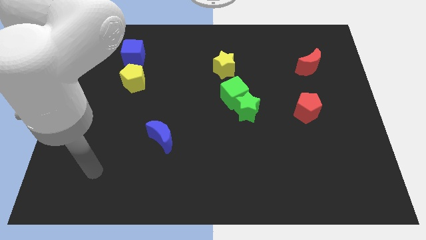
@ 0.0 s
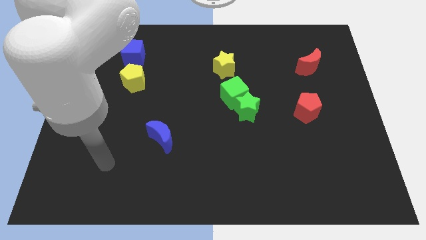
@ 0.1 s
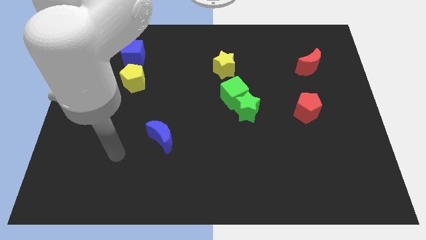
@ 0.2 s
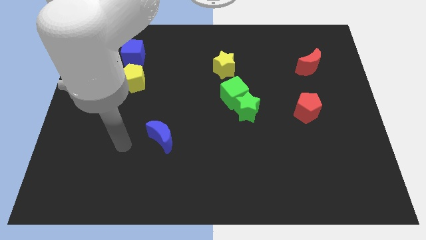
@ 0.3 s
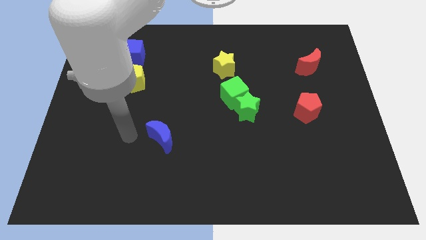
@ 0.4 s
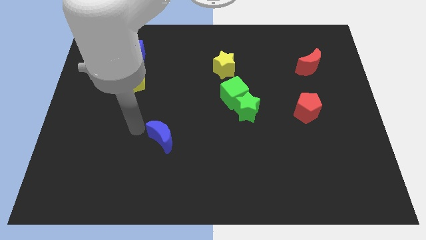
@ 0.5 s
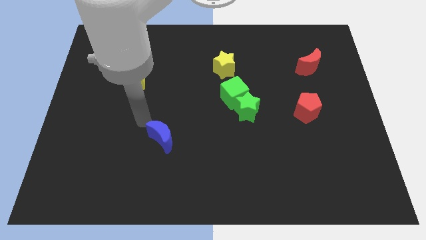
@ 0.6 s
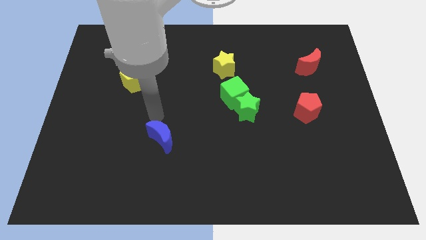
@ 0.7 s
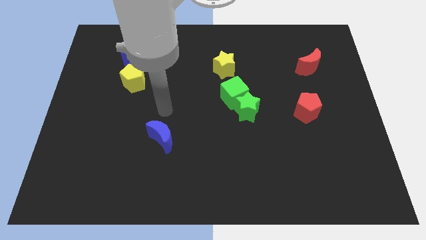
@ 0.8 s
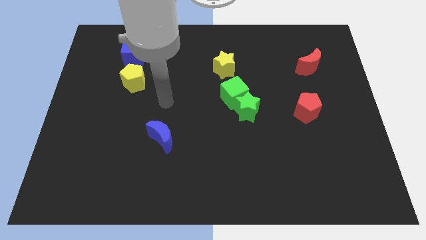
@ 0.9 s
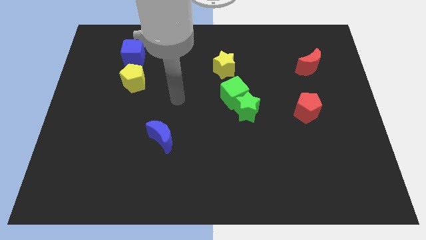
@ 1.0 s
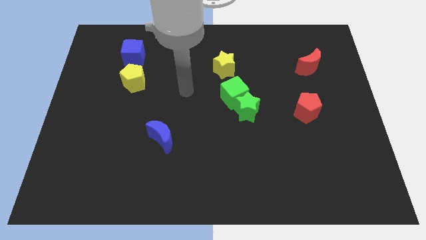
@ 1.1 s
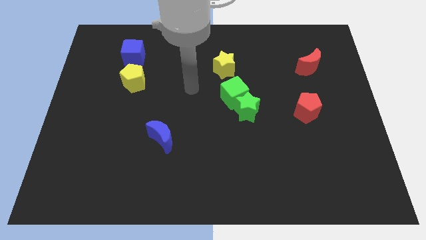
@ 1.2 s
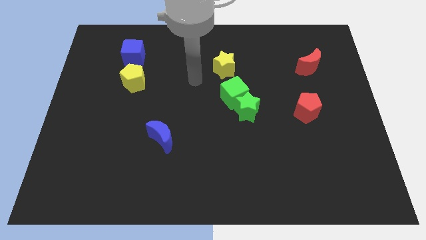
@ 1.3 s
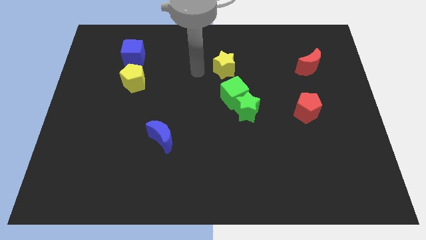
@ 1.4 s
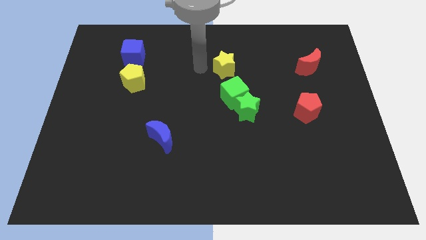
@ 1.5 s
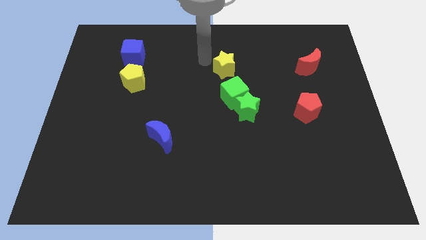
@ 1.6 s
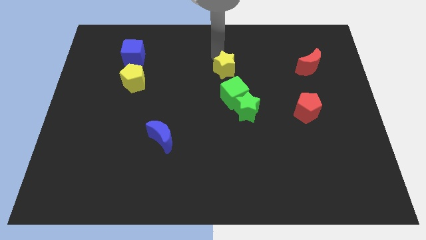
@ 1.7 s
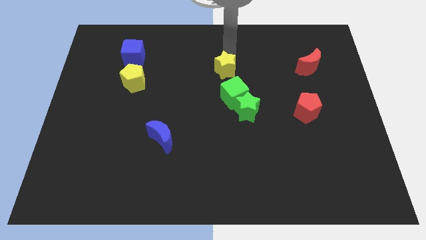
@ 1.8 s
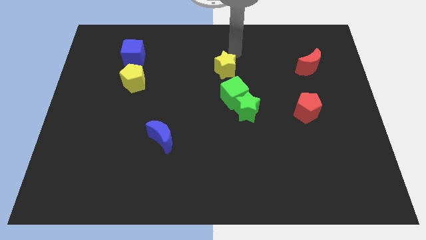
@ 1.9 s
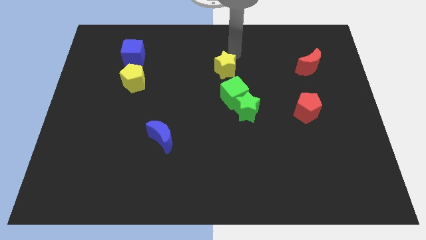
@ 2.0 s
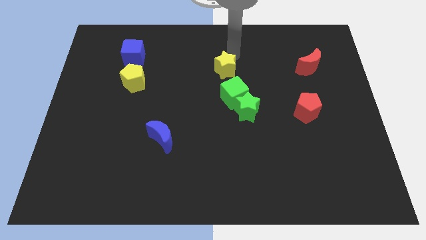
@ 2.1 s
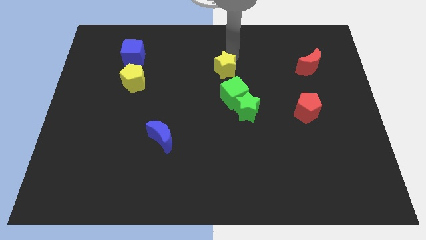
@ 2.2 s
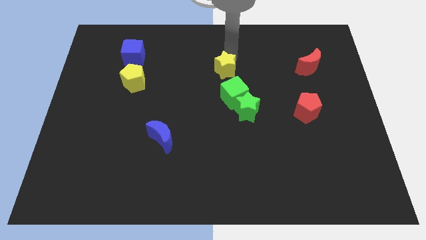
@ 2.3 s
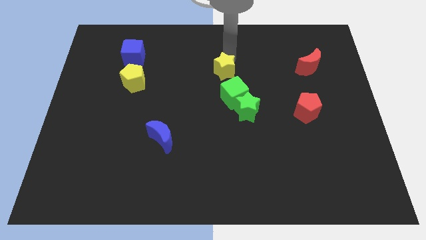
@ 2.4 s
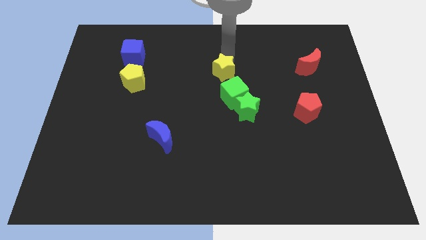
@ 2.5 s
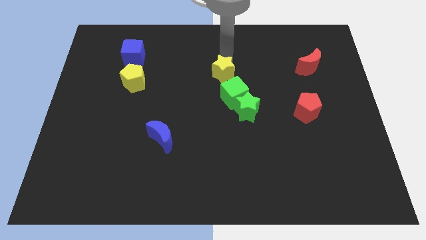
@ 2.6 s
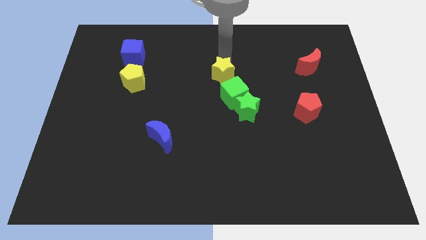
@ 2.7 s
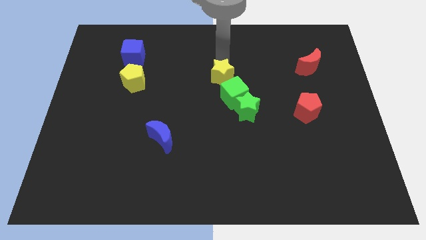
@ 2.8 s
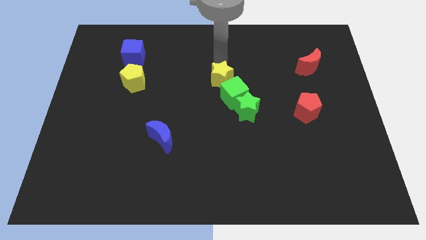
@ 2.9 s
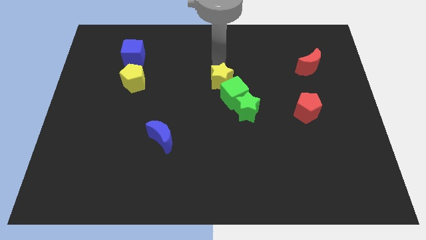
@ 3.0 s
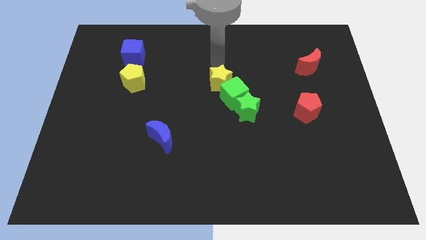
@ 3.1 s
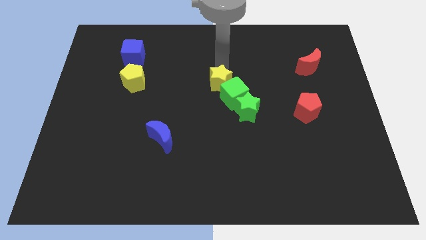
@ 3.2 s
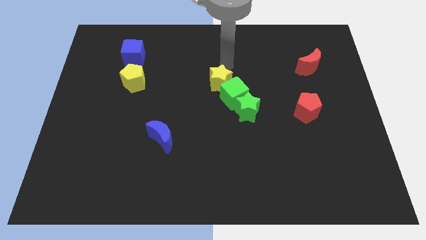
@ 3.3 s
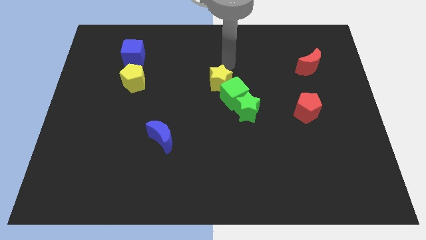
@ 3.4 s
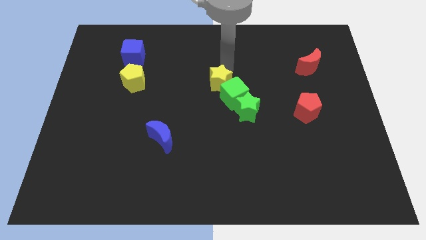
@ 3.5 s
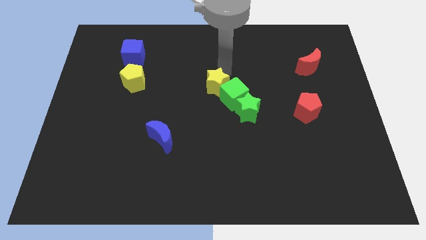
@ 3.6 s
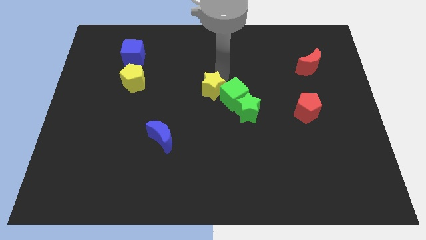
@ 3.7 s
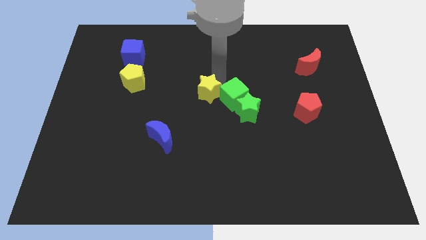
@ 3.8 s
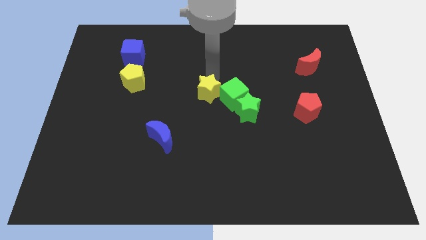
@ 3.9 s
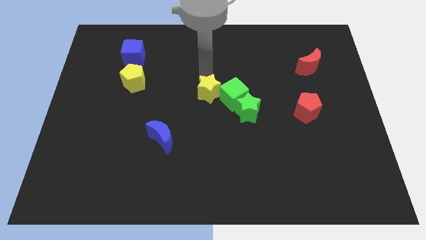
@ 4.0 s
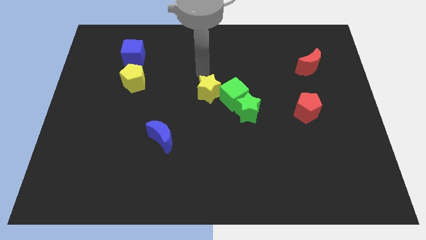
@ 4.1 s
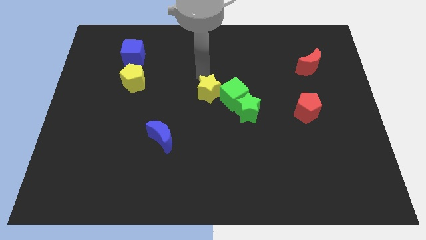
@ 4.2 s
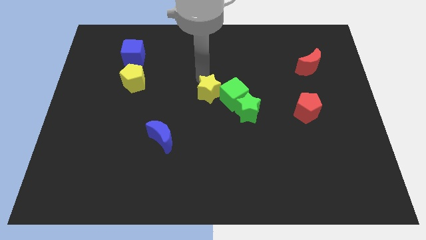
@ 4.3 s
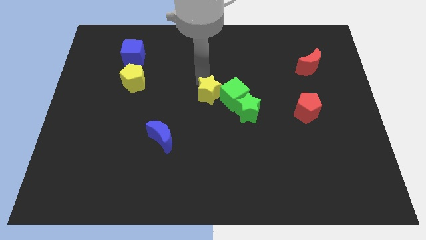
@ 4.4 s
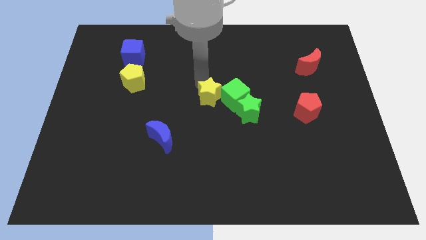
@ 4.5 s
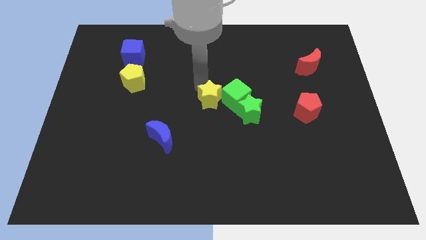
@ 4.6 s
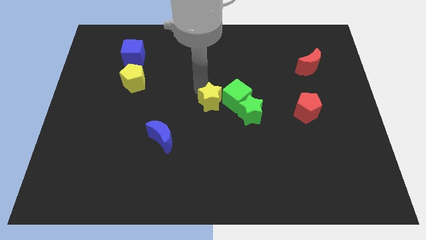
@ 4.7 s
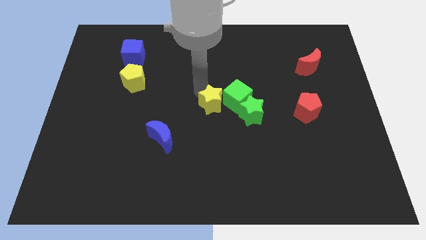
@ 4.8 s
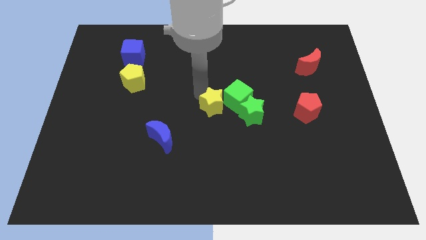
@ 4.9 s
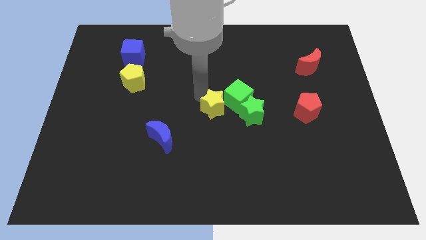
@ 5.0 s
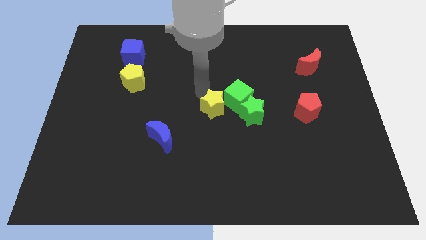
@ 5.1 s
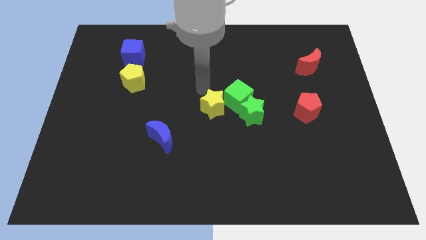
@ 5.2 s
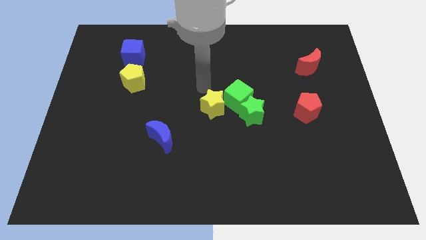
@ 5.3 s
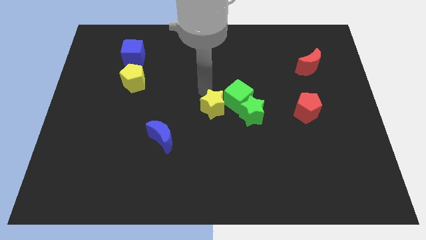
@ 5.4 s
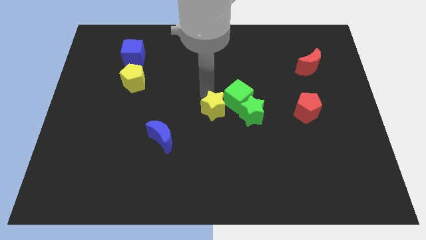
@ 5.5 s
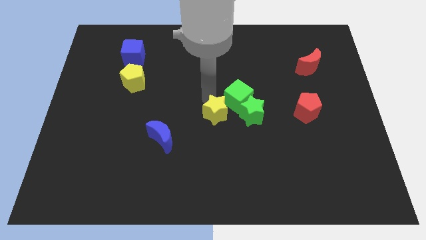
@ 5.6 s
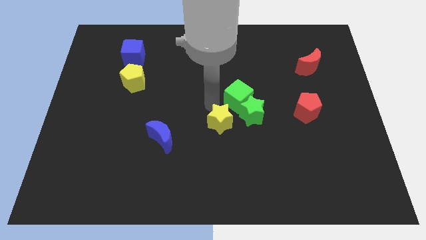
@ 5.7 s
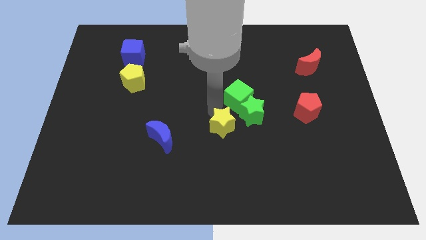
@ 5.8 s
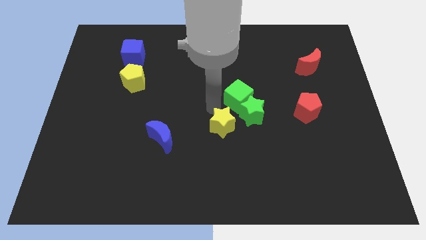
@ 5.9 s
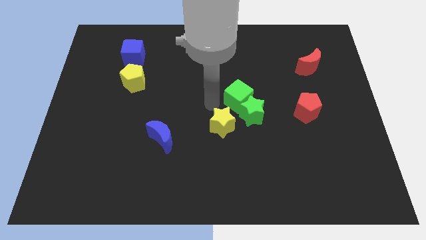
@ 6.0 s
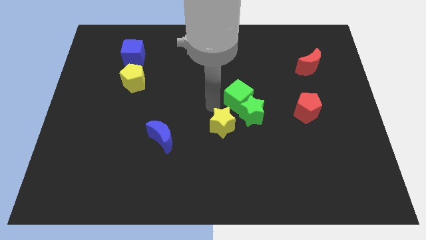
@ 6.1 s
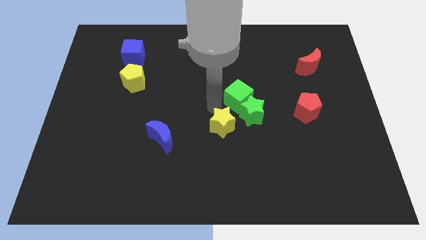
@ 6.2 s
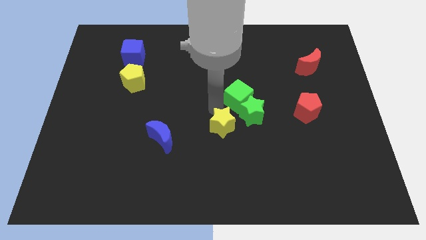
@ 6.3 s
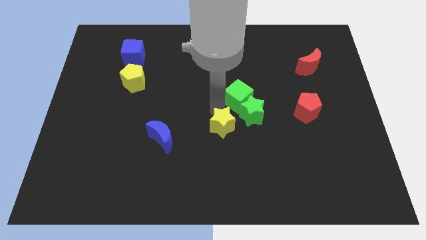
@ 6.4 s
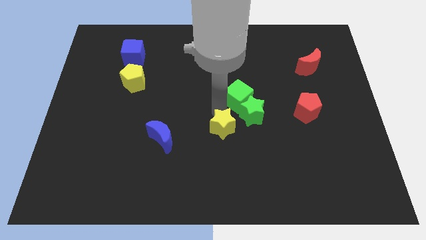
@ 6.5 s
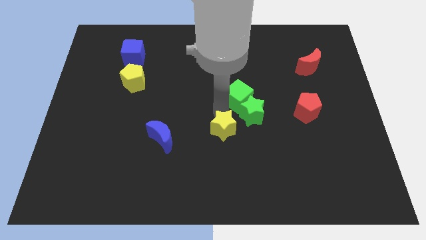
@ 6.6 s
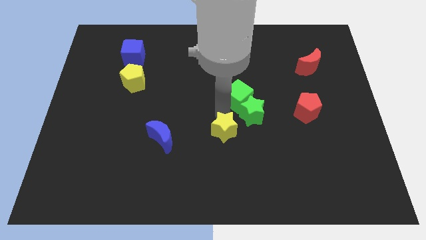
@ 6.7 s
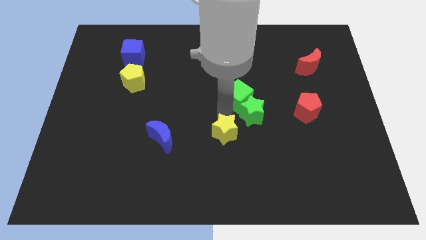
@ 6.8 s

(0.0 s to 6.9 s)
move the yellow star downwards

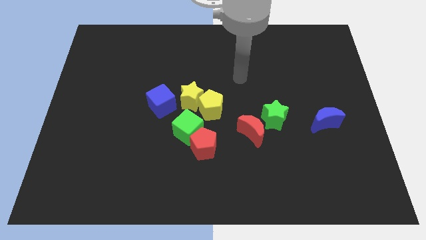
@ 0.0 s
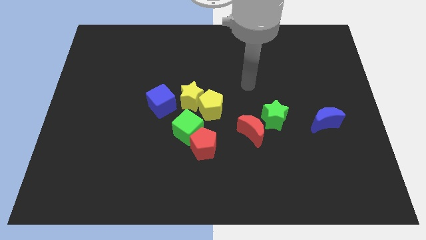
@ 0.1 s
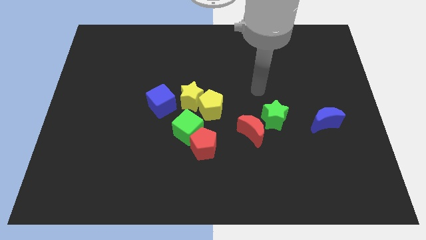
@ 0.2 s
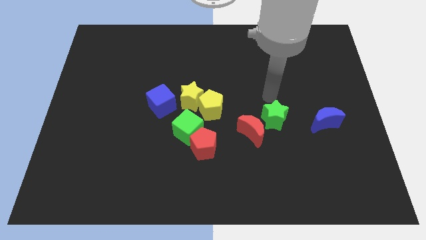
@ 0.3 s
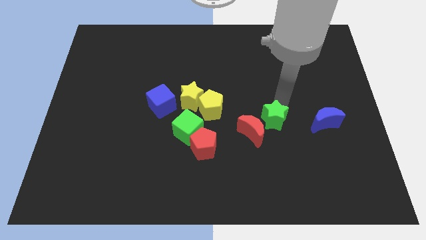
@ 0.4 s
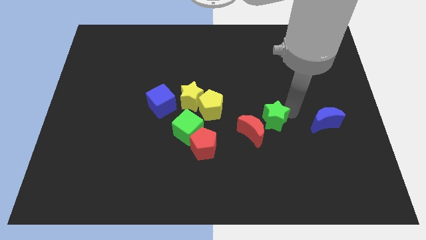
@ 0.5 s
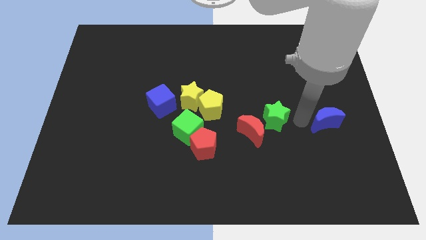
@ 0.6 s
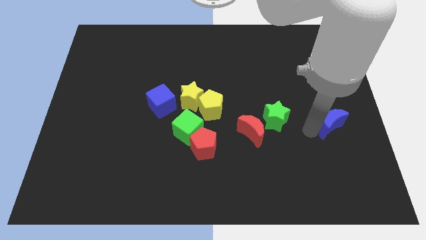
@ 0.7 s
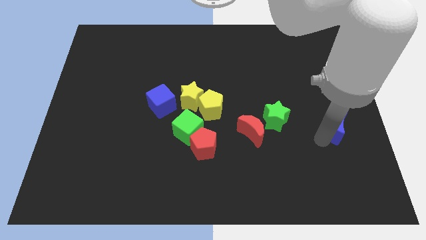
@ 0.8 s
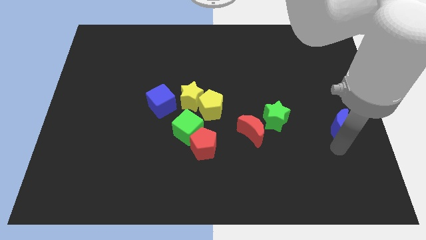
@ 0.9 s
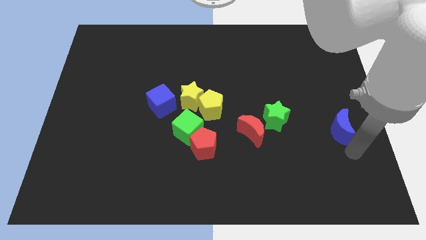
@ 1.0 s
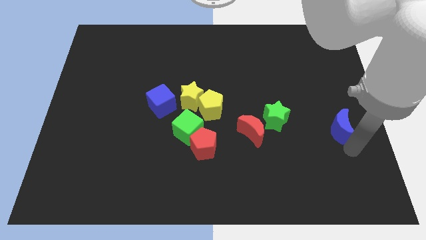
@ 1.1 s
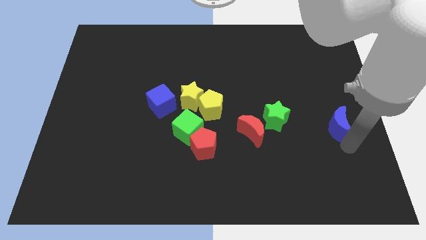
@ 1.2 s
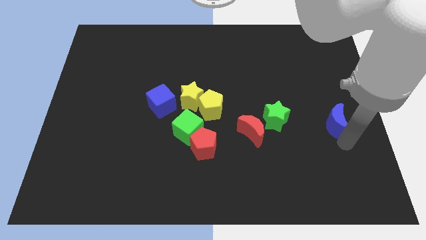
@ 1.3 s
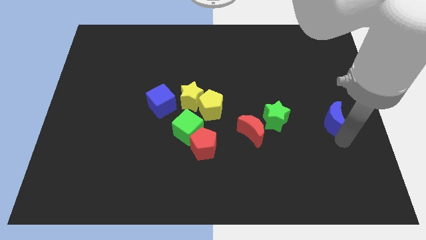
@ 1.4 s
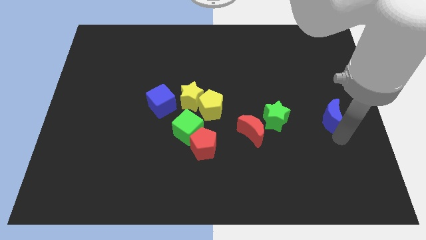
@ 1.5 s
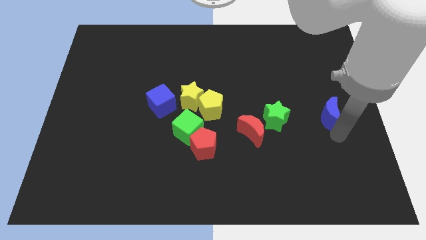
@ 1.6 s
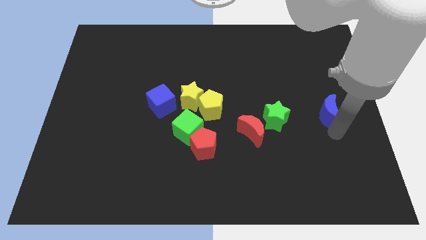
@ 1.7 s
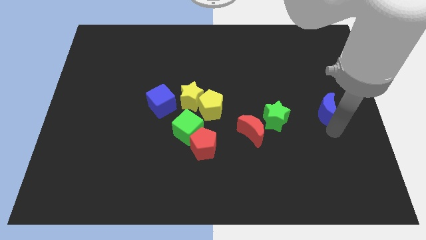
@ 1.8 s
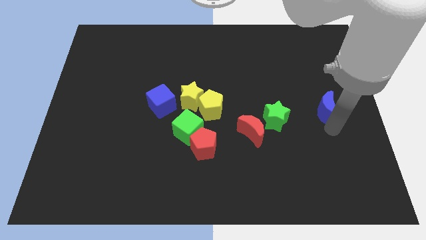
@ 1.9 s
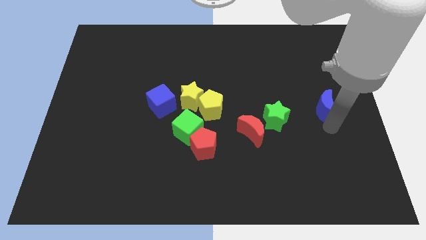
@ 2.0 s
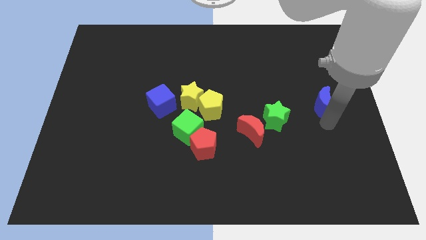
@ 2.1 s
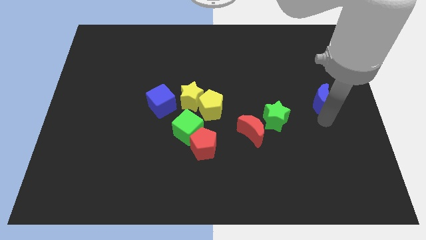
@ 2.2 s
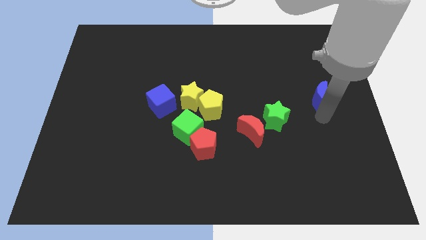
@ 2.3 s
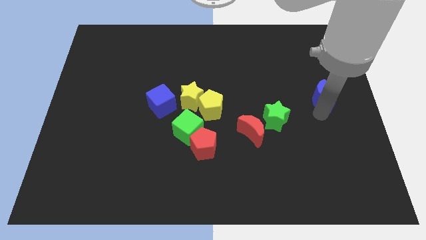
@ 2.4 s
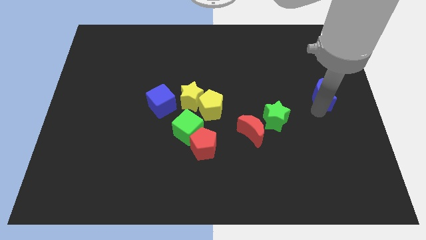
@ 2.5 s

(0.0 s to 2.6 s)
push the blue moon up a bit
